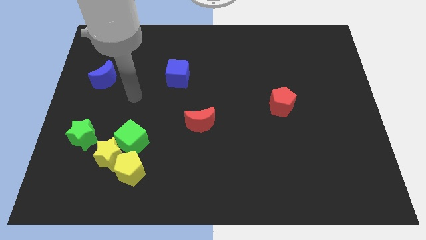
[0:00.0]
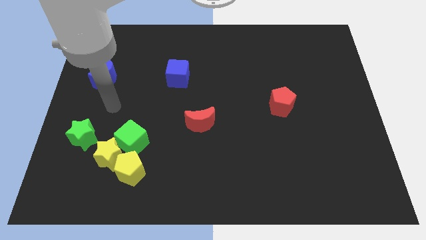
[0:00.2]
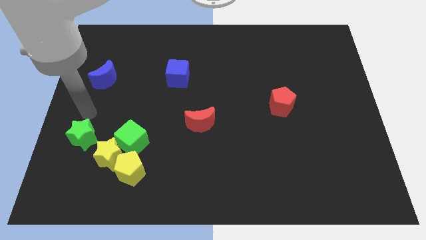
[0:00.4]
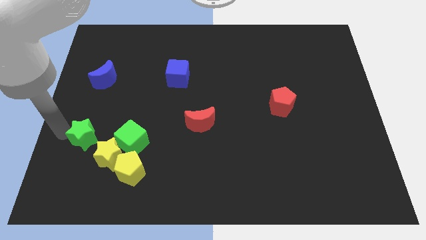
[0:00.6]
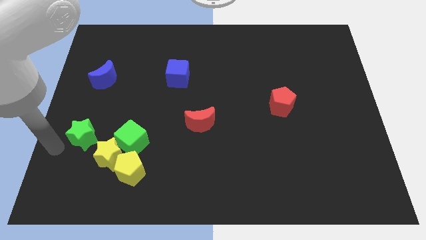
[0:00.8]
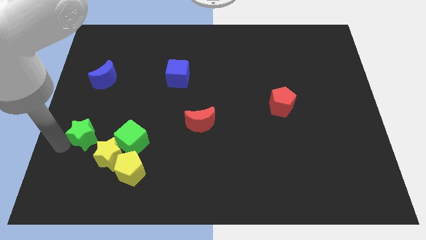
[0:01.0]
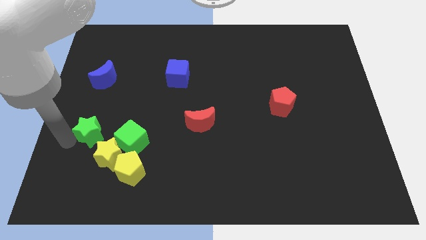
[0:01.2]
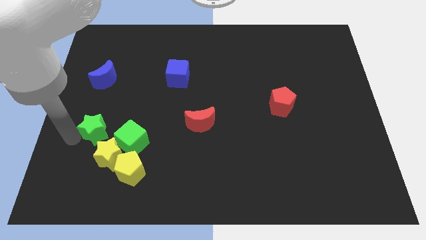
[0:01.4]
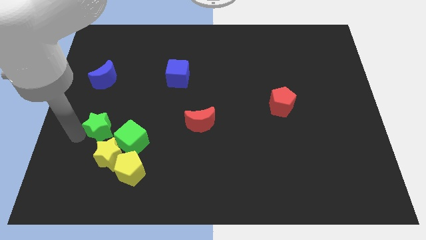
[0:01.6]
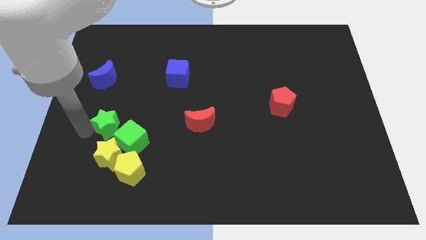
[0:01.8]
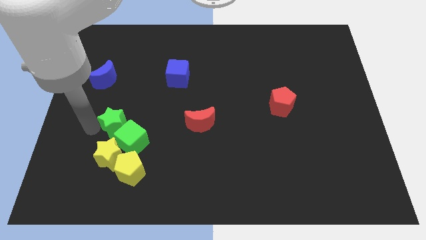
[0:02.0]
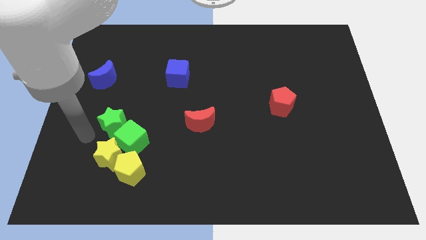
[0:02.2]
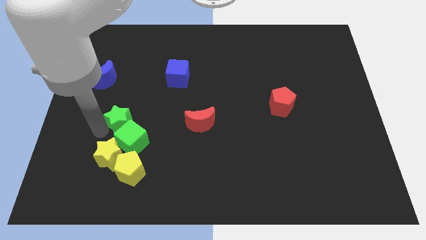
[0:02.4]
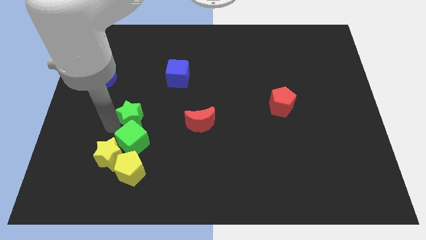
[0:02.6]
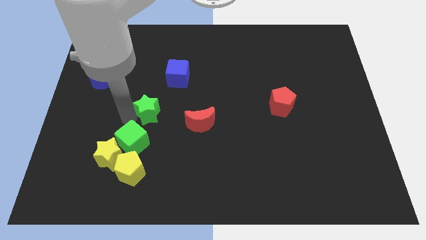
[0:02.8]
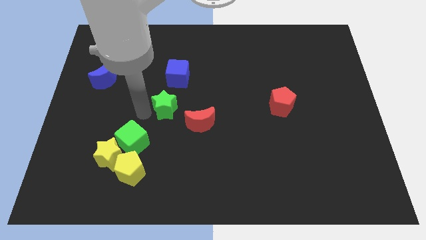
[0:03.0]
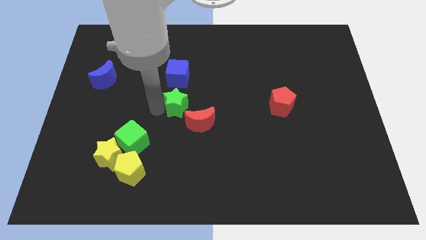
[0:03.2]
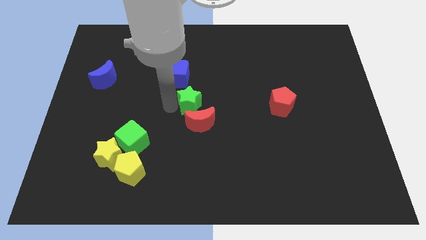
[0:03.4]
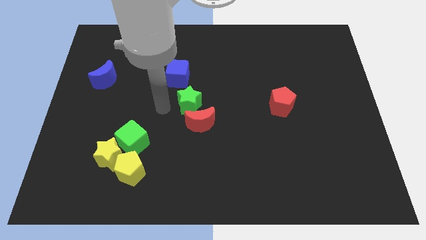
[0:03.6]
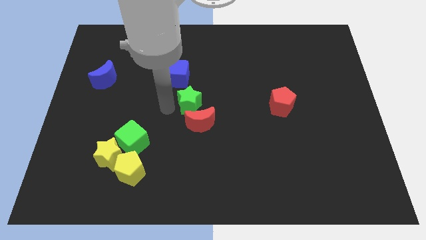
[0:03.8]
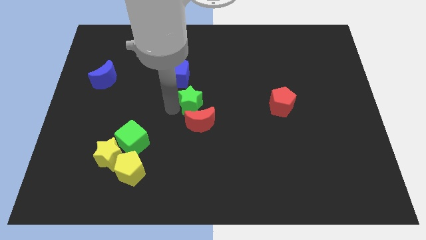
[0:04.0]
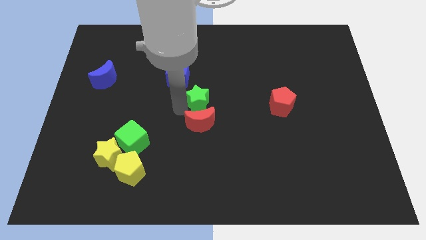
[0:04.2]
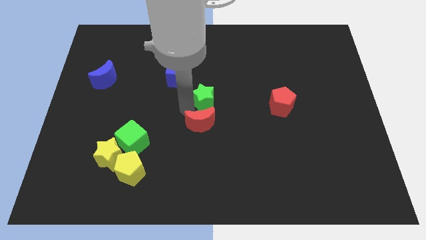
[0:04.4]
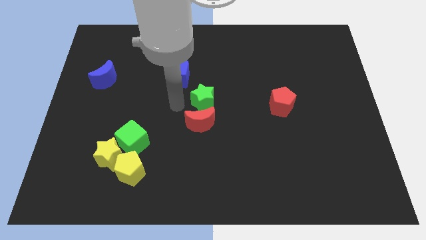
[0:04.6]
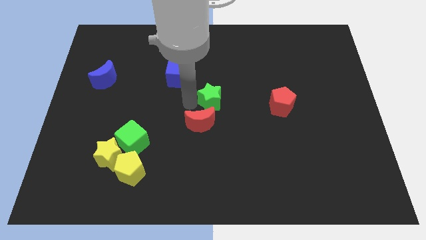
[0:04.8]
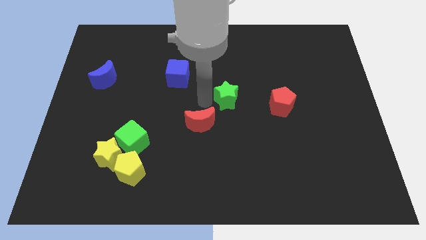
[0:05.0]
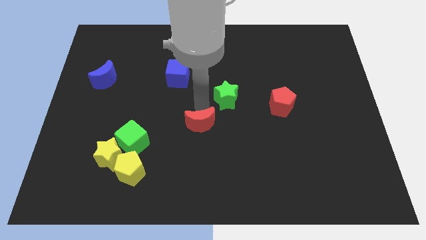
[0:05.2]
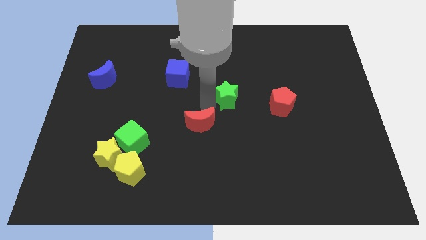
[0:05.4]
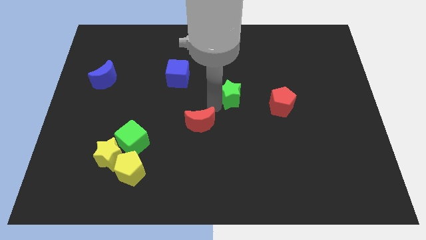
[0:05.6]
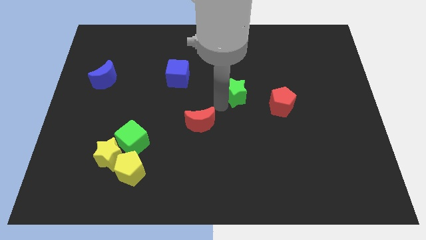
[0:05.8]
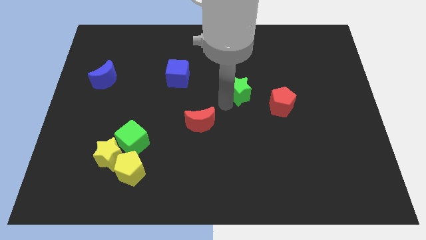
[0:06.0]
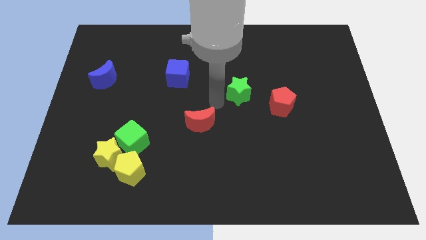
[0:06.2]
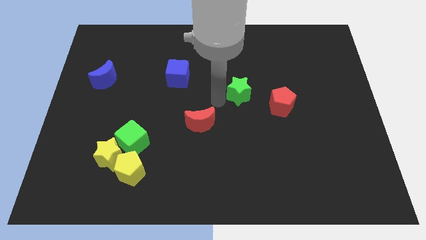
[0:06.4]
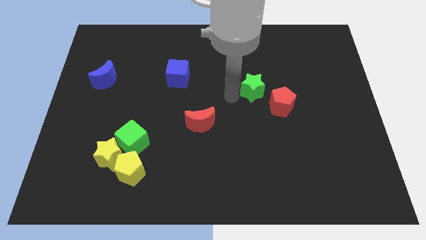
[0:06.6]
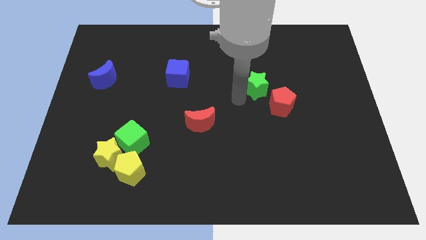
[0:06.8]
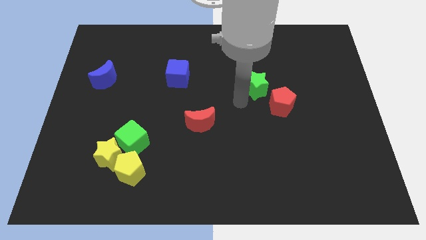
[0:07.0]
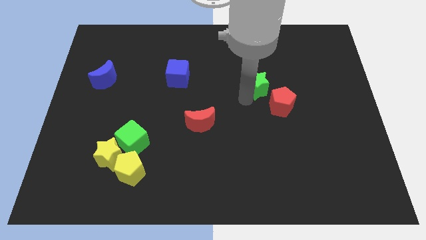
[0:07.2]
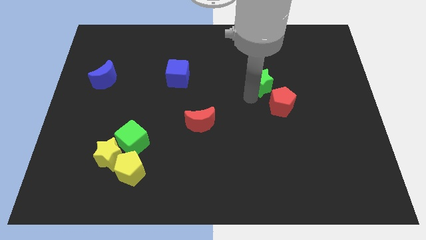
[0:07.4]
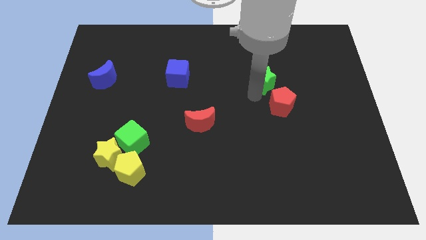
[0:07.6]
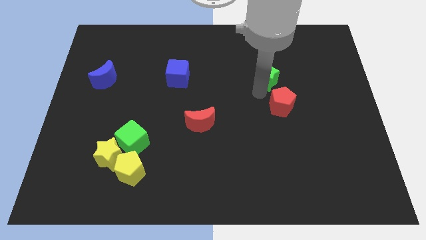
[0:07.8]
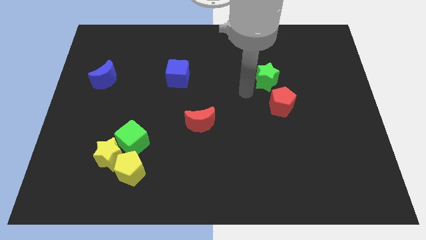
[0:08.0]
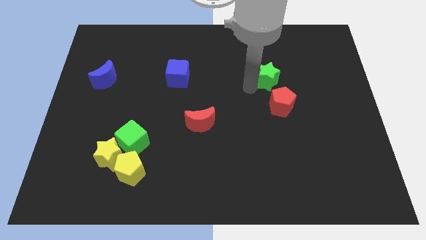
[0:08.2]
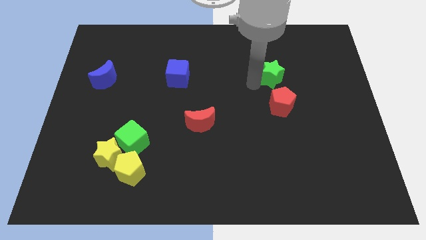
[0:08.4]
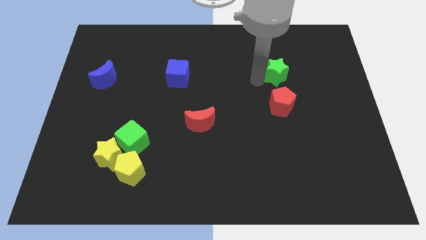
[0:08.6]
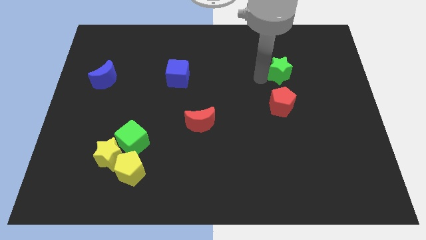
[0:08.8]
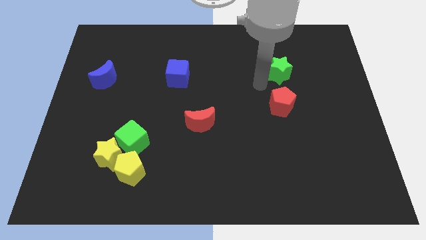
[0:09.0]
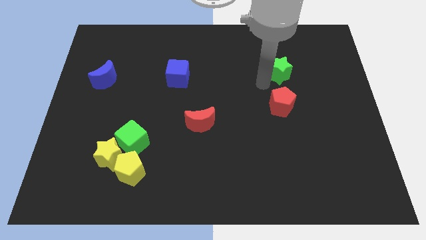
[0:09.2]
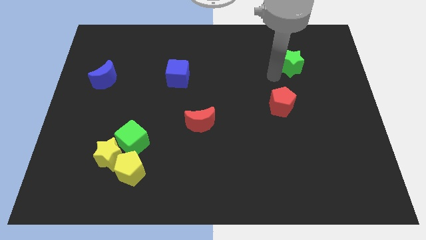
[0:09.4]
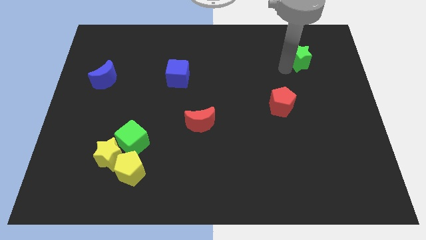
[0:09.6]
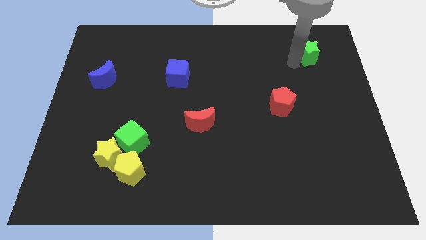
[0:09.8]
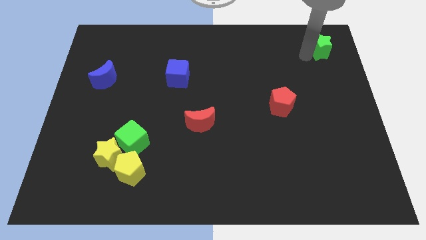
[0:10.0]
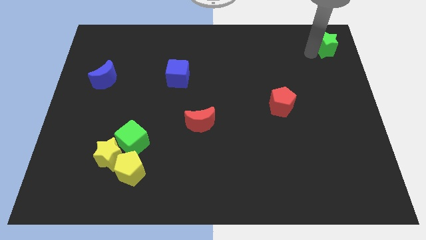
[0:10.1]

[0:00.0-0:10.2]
slide the green star to the top right

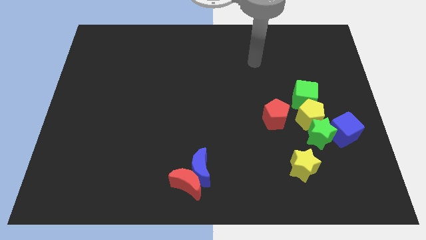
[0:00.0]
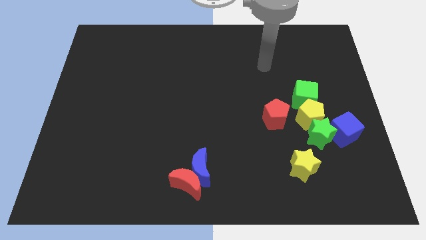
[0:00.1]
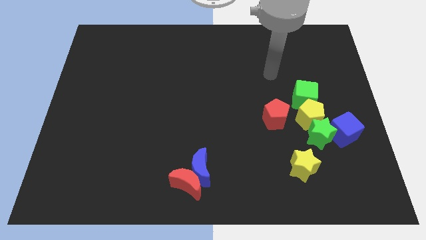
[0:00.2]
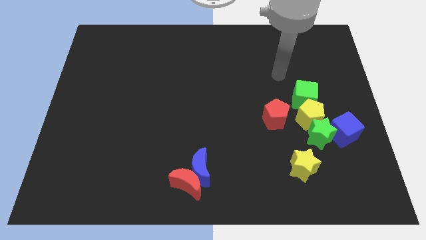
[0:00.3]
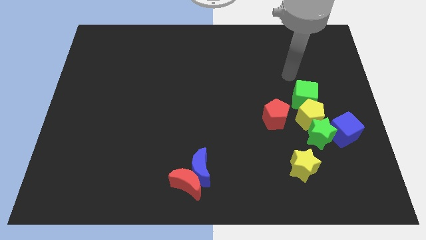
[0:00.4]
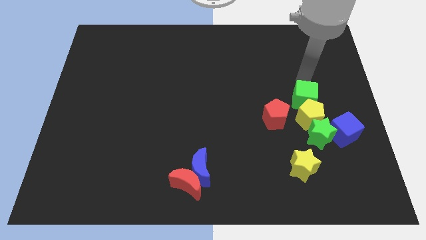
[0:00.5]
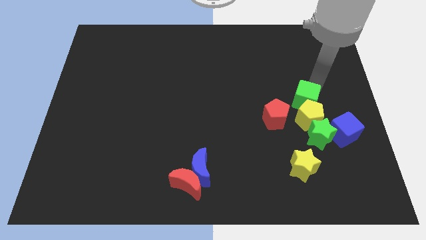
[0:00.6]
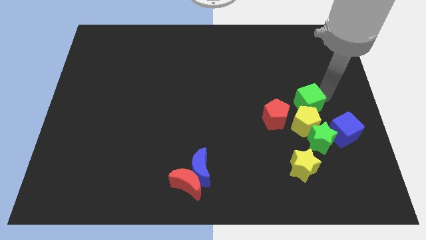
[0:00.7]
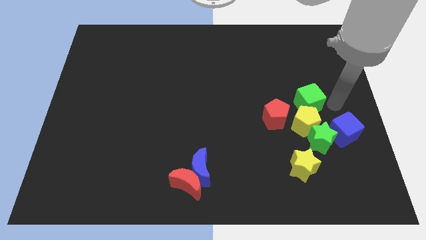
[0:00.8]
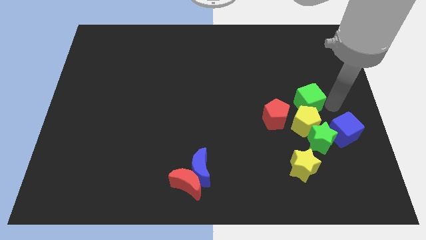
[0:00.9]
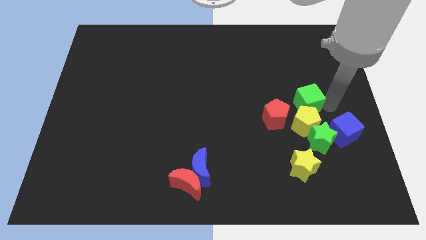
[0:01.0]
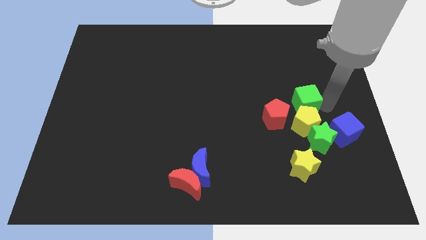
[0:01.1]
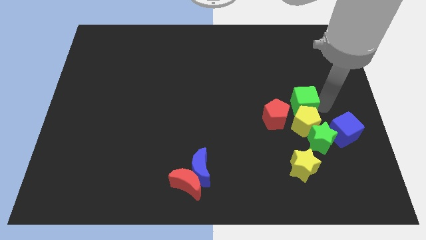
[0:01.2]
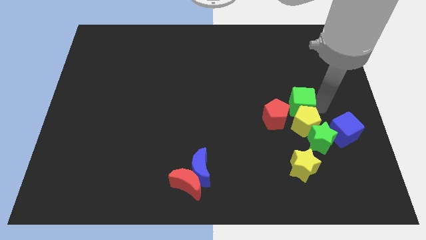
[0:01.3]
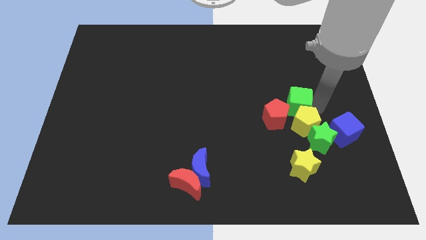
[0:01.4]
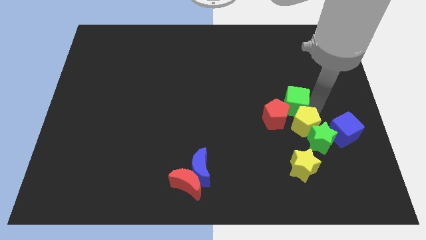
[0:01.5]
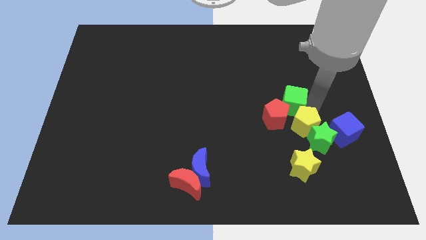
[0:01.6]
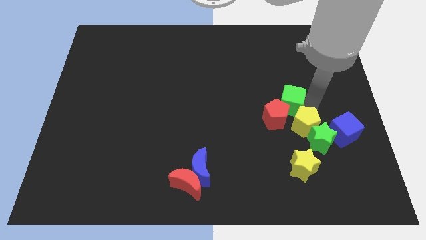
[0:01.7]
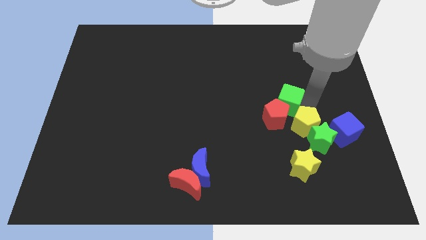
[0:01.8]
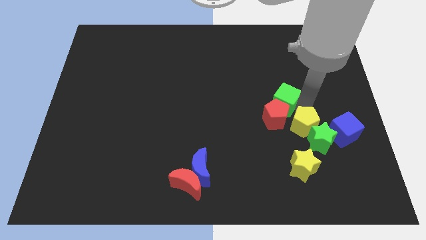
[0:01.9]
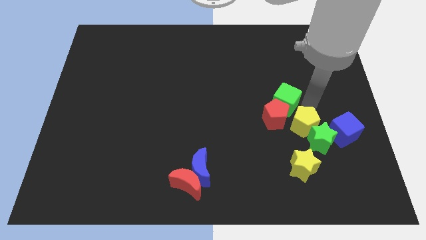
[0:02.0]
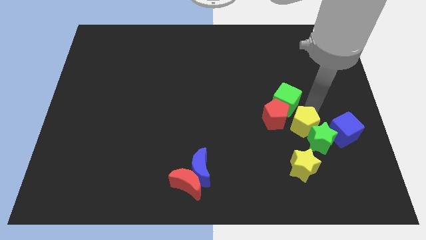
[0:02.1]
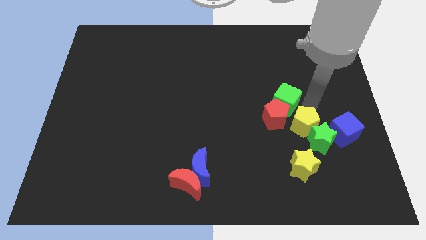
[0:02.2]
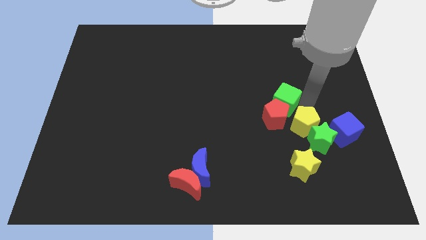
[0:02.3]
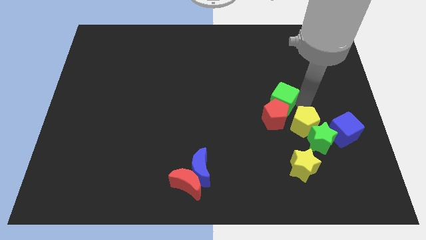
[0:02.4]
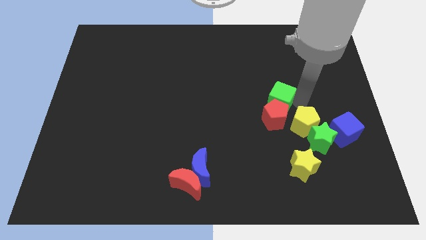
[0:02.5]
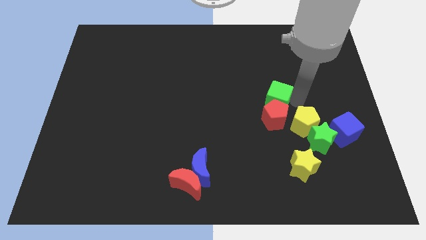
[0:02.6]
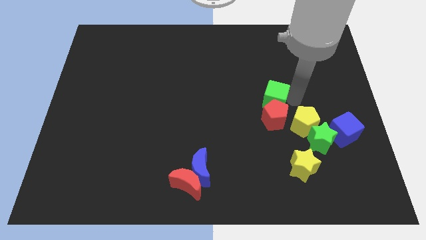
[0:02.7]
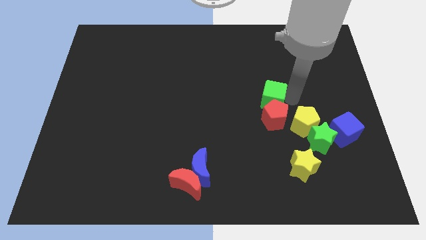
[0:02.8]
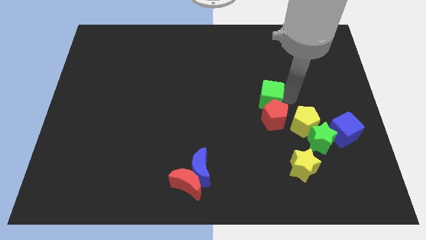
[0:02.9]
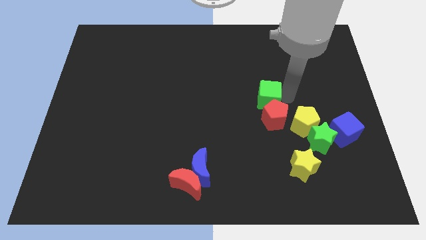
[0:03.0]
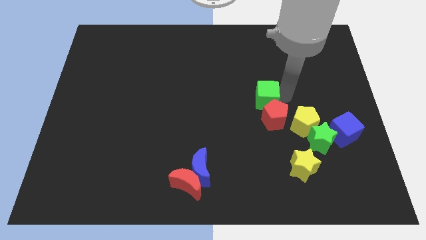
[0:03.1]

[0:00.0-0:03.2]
slide the green cube to the center
